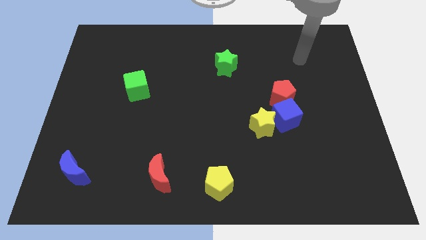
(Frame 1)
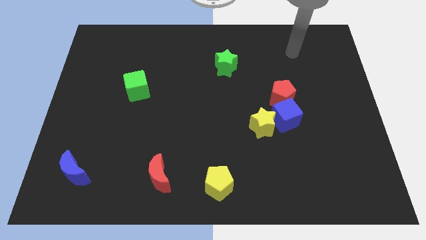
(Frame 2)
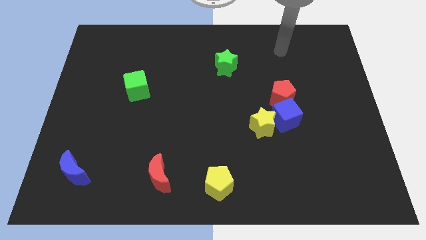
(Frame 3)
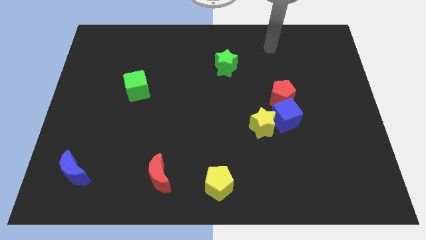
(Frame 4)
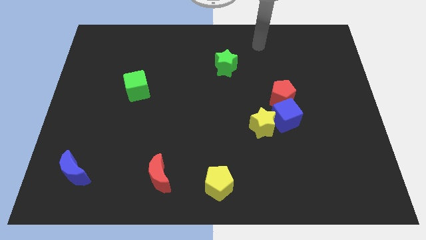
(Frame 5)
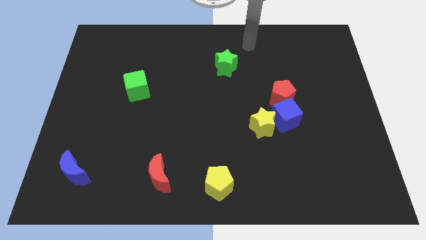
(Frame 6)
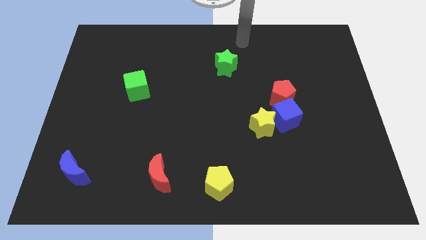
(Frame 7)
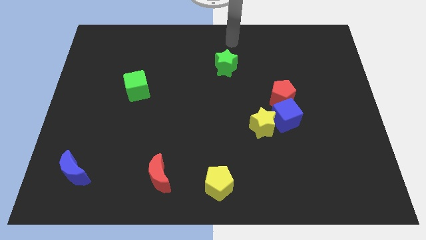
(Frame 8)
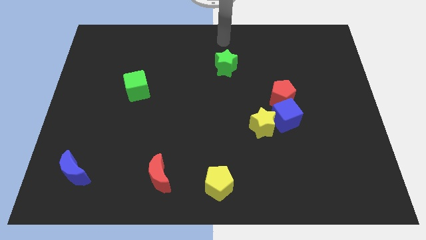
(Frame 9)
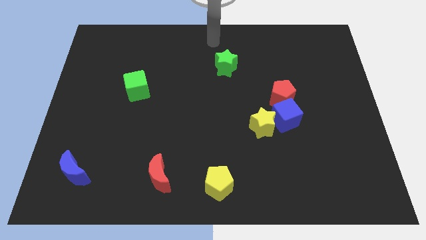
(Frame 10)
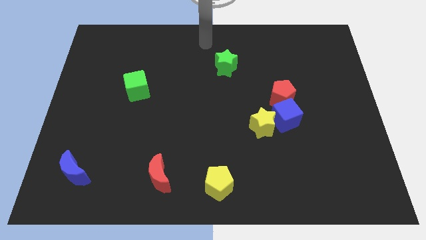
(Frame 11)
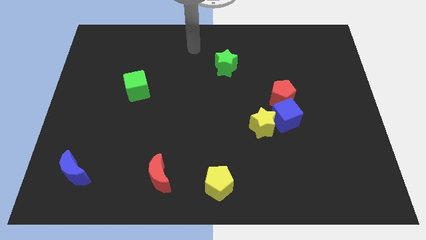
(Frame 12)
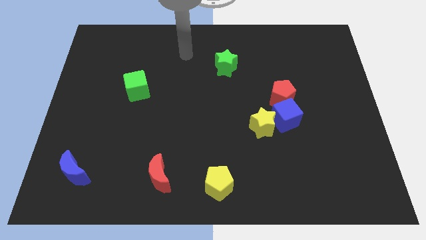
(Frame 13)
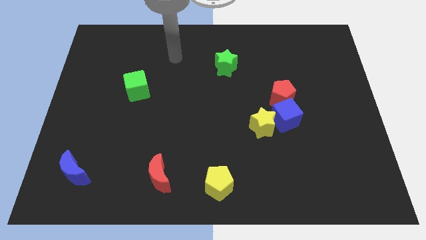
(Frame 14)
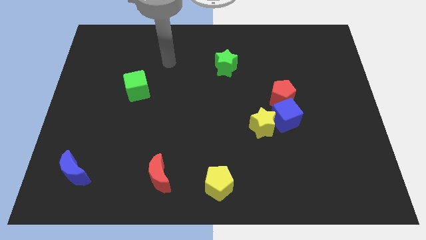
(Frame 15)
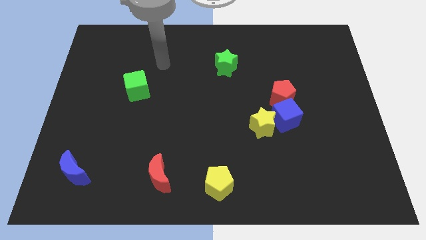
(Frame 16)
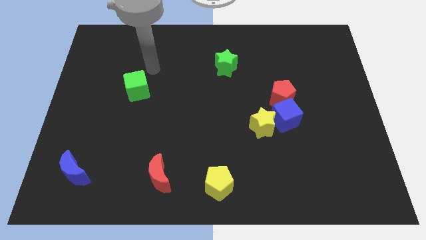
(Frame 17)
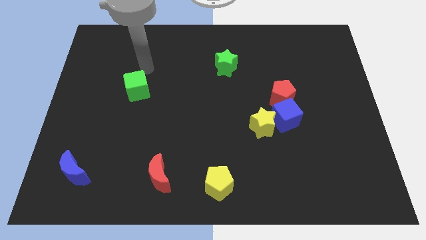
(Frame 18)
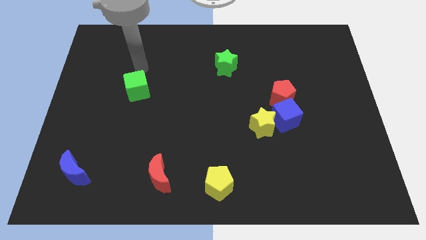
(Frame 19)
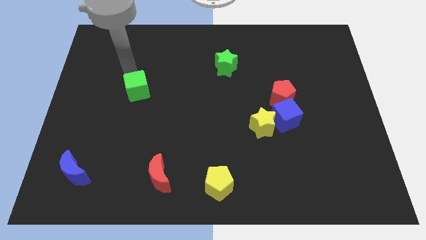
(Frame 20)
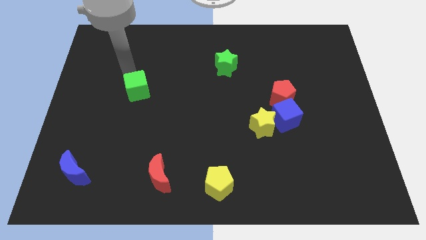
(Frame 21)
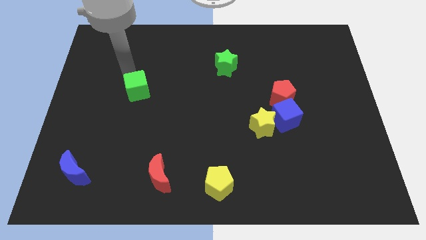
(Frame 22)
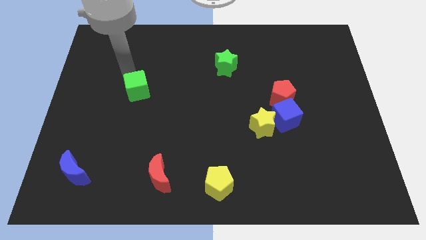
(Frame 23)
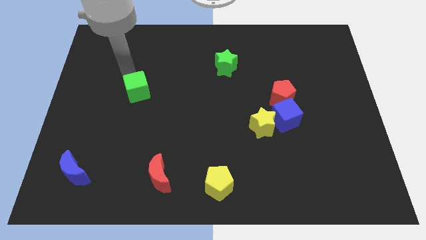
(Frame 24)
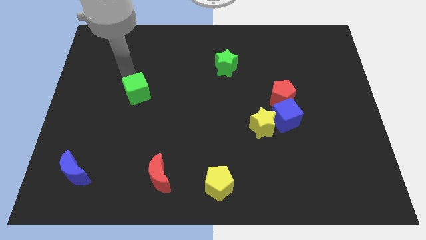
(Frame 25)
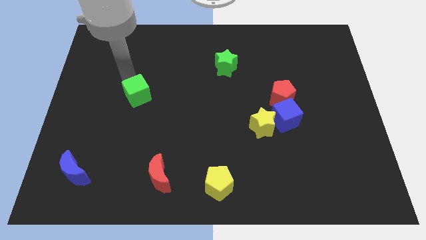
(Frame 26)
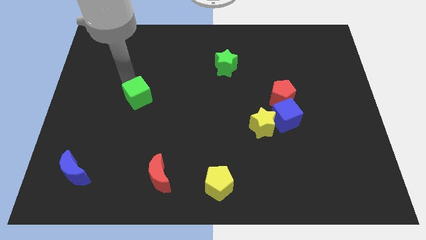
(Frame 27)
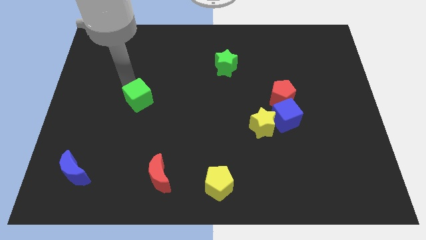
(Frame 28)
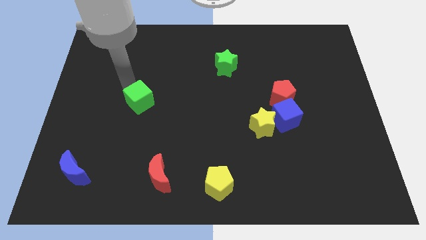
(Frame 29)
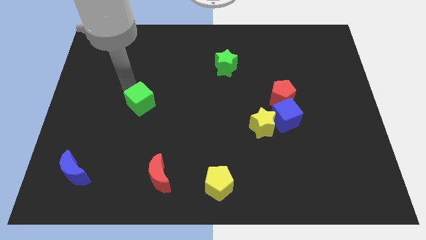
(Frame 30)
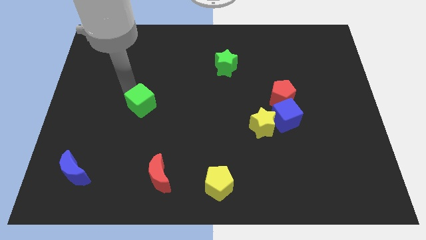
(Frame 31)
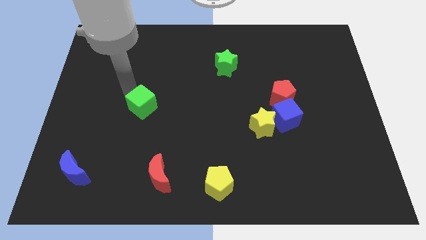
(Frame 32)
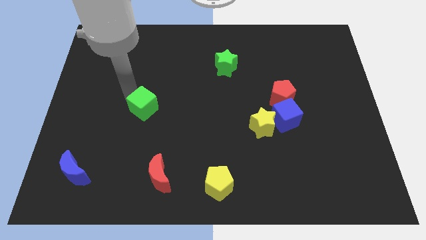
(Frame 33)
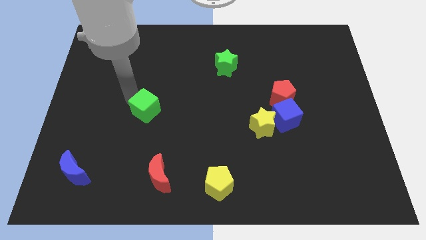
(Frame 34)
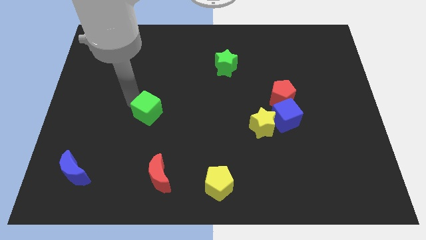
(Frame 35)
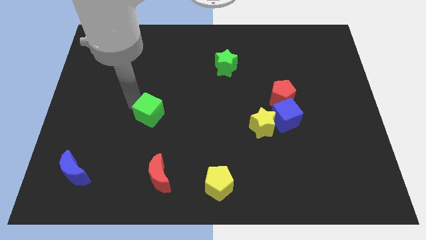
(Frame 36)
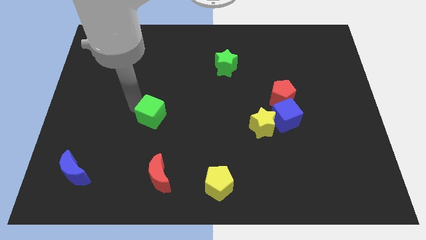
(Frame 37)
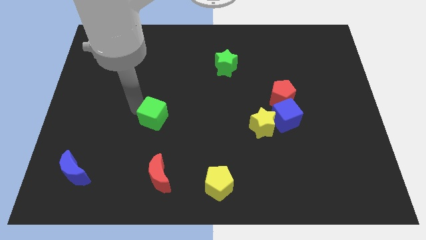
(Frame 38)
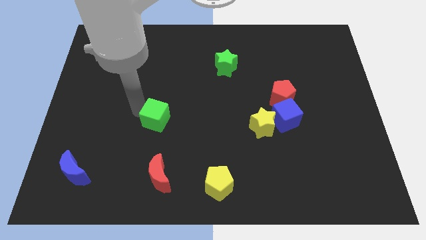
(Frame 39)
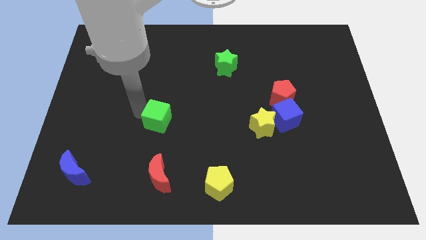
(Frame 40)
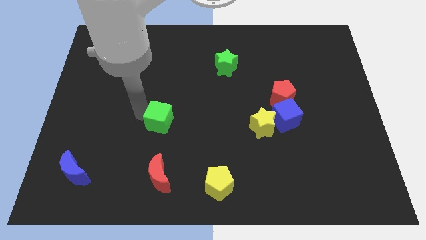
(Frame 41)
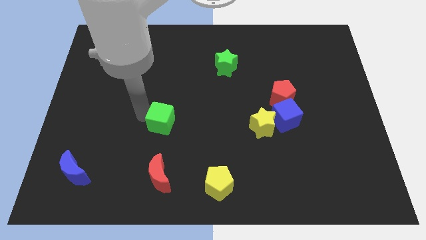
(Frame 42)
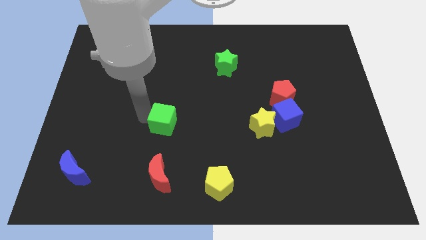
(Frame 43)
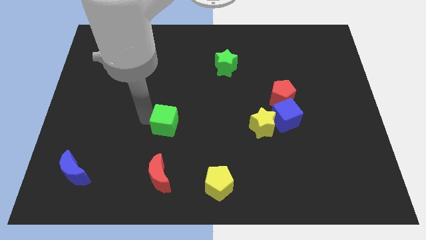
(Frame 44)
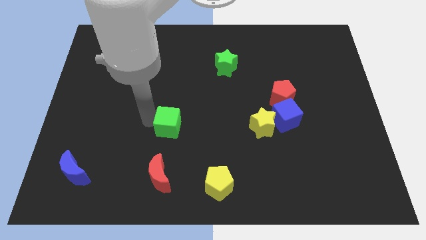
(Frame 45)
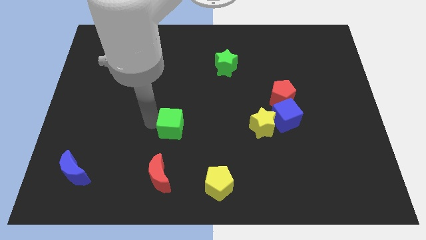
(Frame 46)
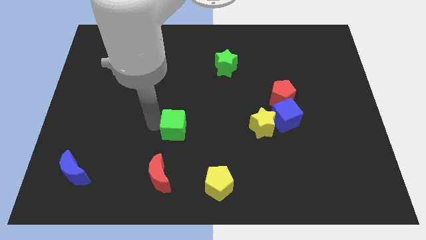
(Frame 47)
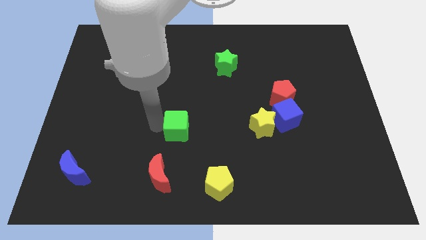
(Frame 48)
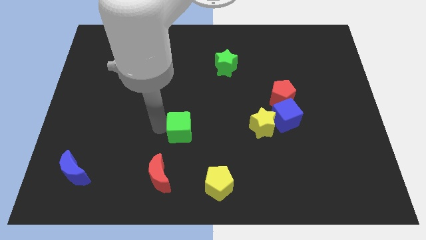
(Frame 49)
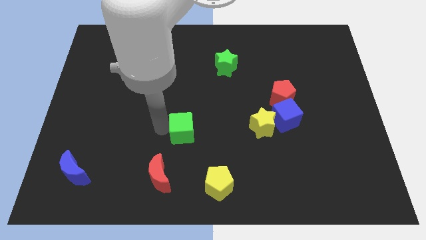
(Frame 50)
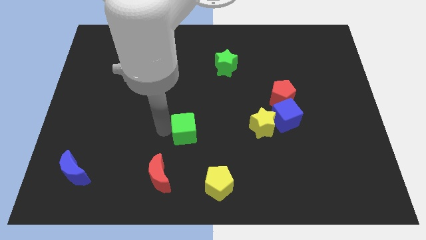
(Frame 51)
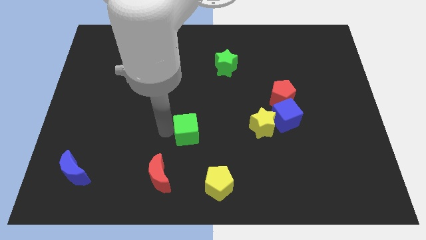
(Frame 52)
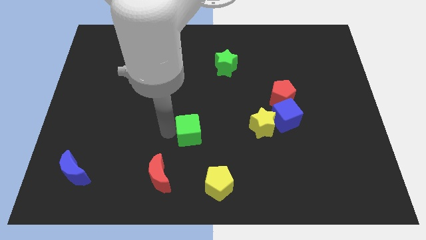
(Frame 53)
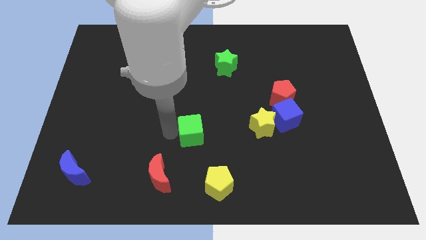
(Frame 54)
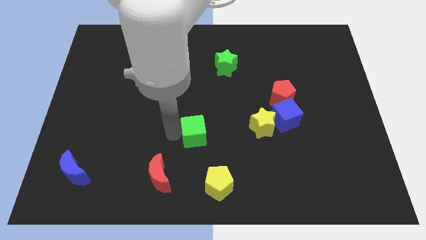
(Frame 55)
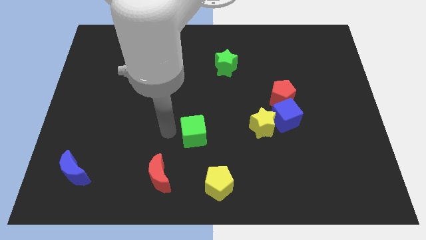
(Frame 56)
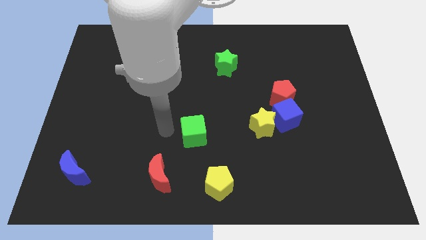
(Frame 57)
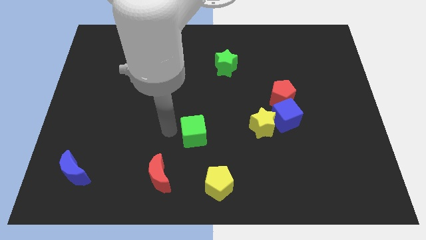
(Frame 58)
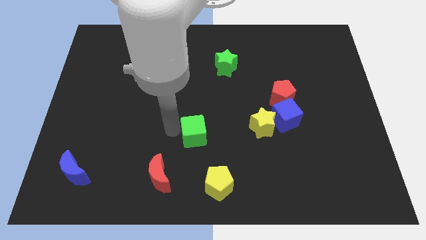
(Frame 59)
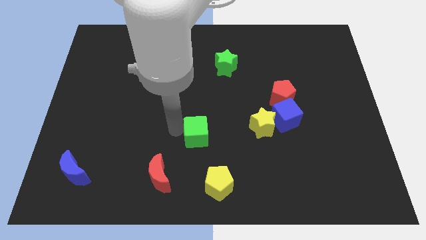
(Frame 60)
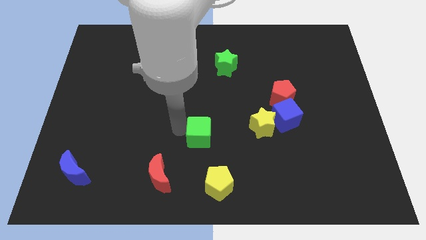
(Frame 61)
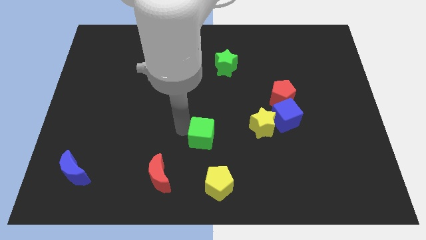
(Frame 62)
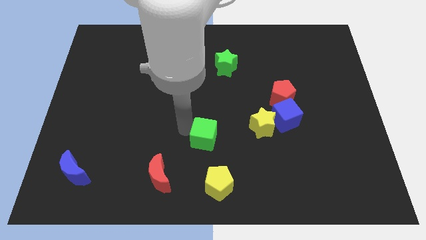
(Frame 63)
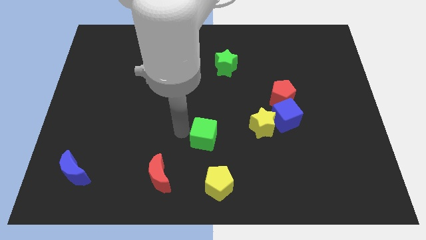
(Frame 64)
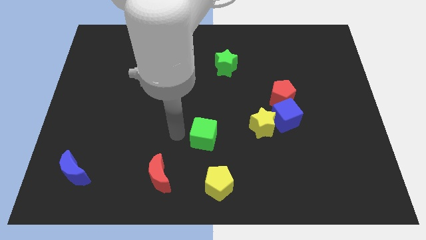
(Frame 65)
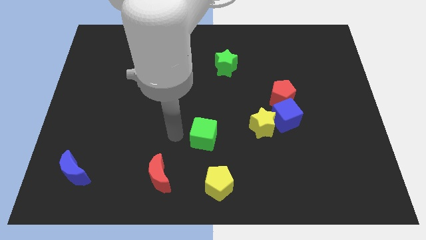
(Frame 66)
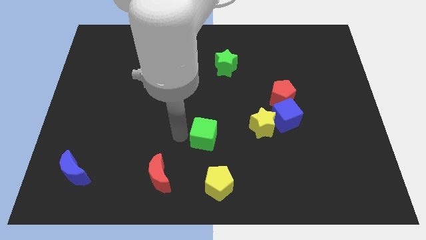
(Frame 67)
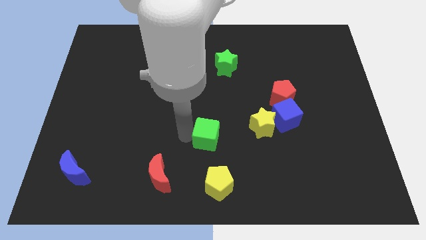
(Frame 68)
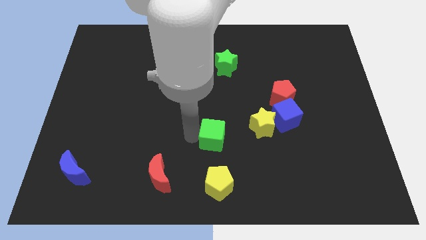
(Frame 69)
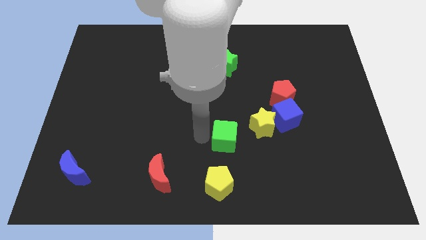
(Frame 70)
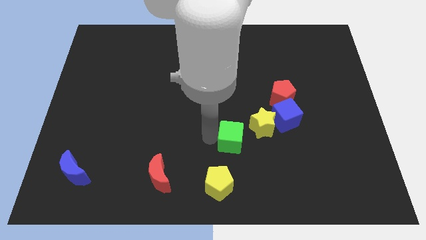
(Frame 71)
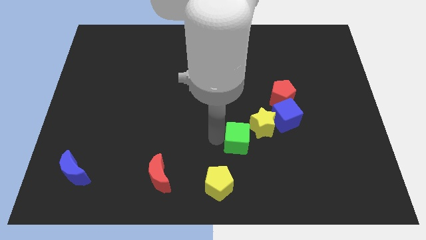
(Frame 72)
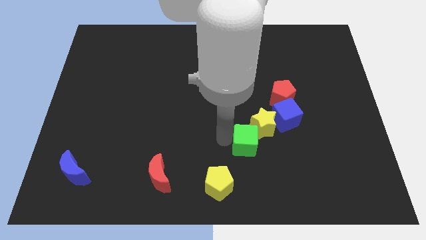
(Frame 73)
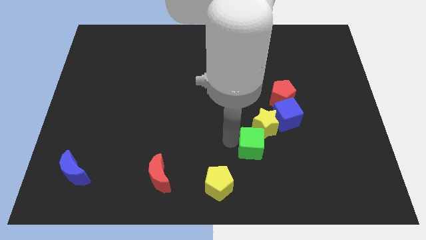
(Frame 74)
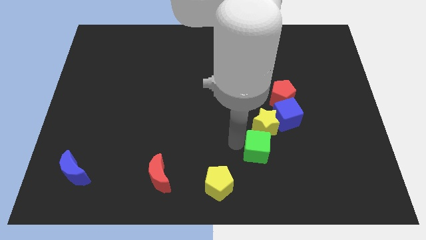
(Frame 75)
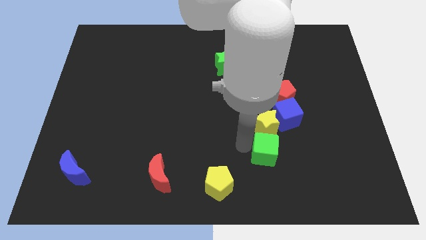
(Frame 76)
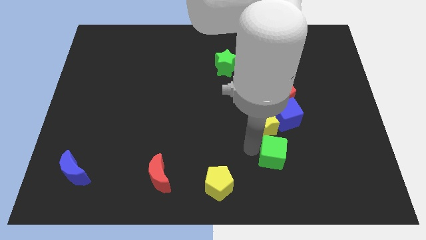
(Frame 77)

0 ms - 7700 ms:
slide the green cube to the bottom side of the blue cube
